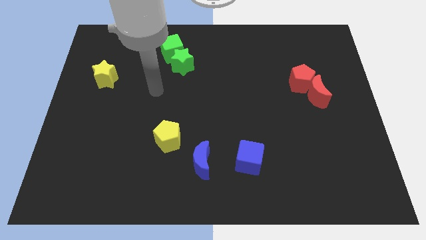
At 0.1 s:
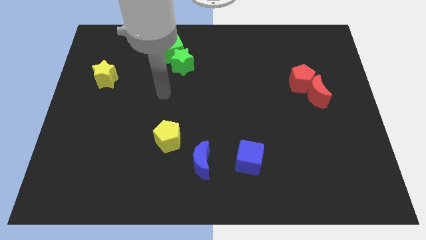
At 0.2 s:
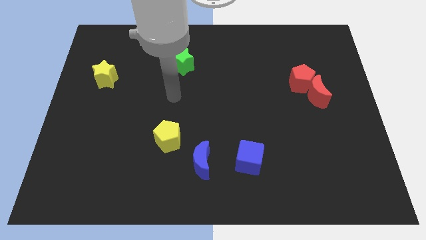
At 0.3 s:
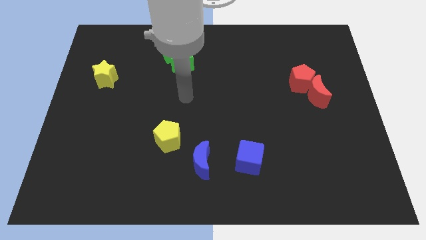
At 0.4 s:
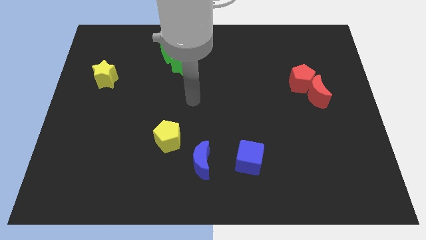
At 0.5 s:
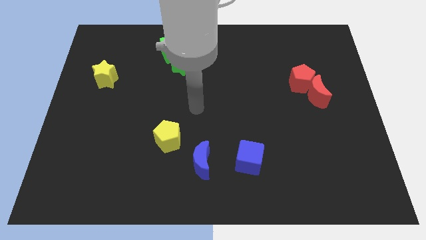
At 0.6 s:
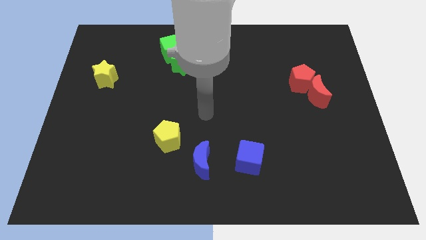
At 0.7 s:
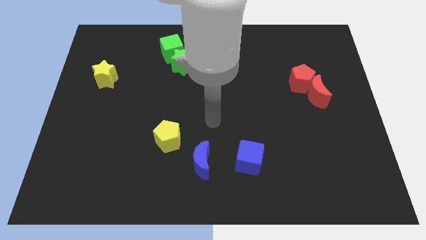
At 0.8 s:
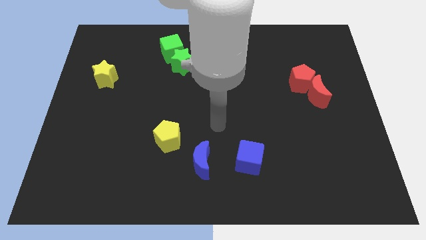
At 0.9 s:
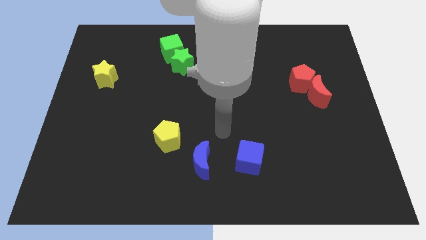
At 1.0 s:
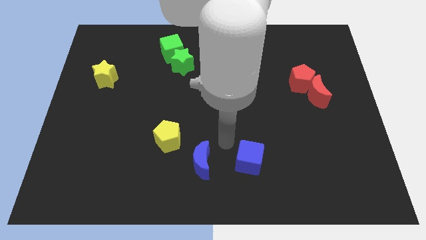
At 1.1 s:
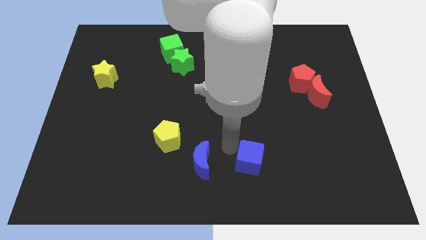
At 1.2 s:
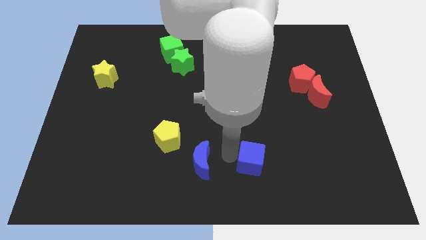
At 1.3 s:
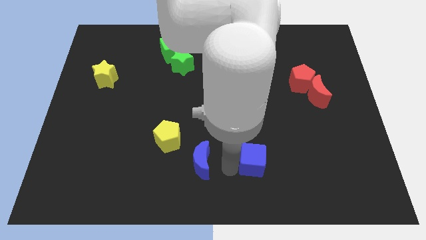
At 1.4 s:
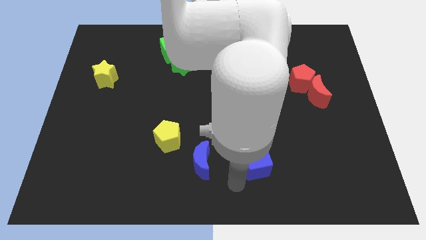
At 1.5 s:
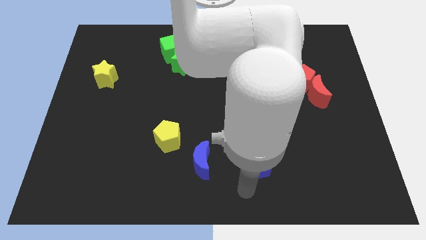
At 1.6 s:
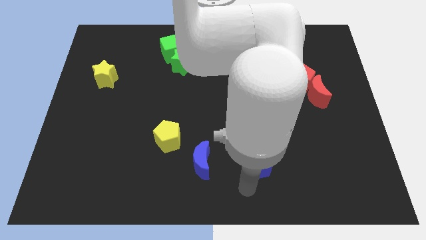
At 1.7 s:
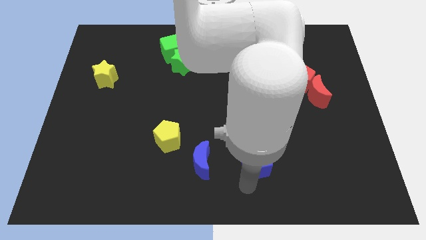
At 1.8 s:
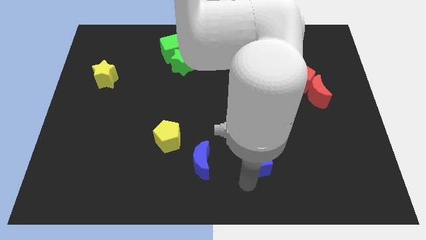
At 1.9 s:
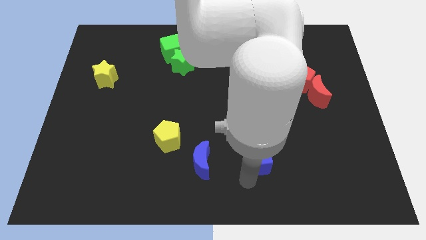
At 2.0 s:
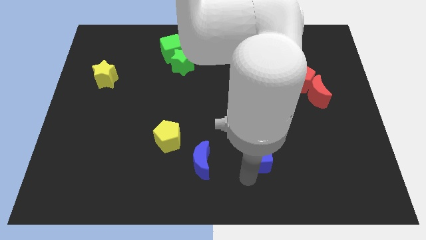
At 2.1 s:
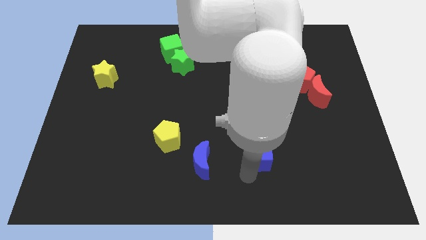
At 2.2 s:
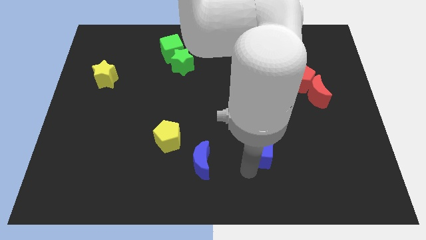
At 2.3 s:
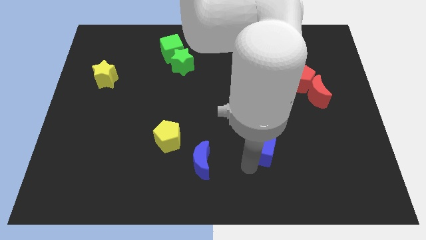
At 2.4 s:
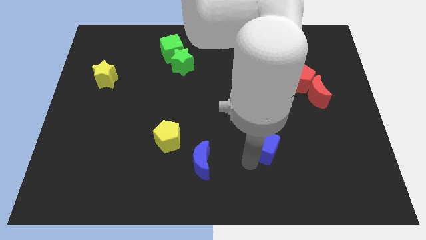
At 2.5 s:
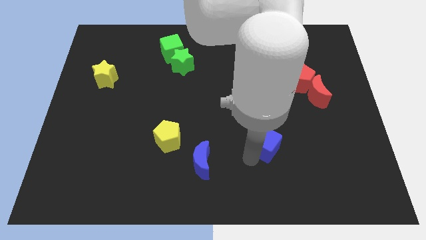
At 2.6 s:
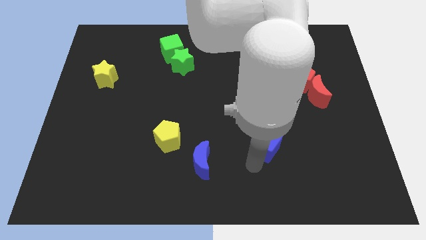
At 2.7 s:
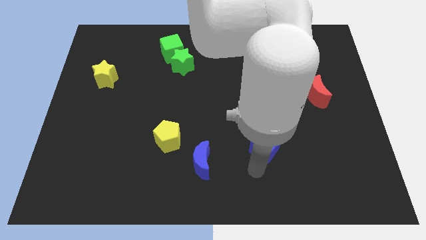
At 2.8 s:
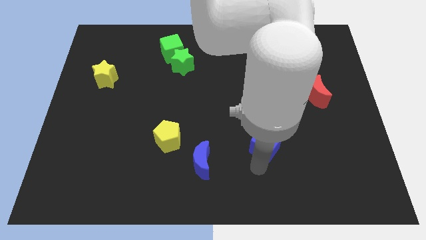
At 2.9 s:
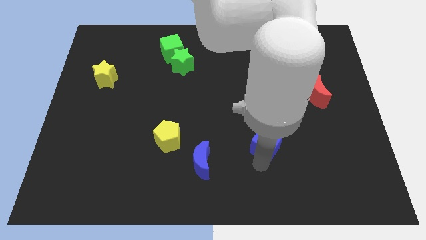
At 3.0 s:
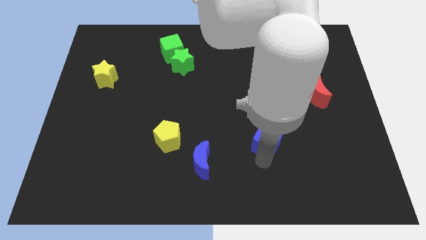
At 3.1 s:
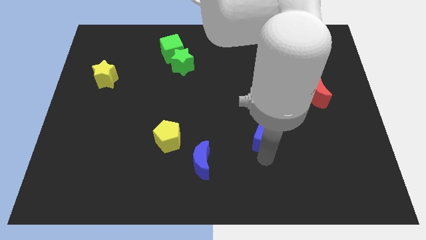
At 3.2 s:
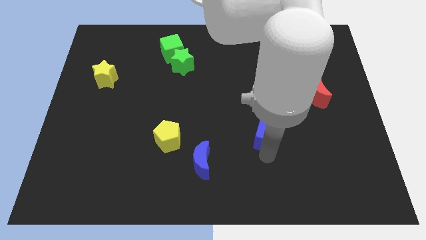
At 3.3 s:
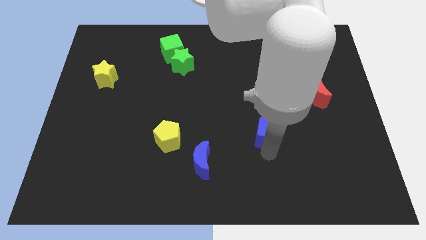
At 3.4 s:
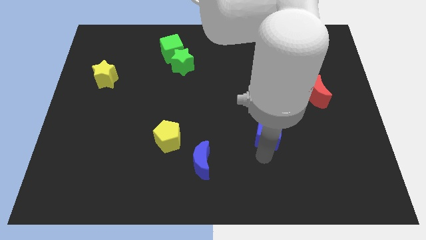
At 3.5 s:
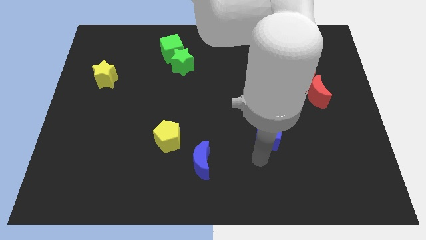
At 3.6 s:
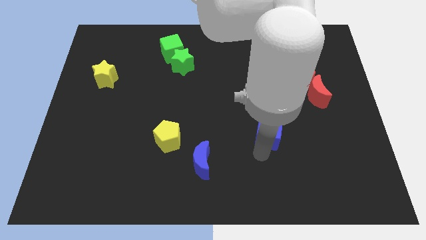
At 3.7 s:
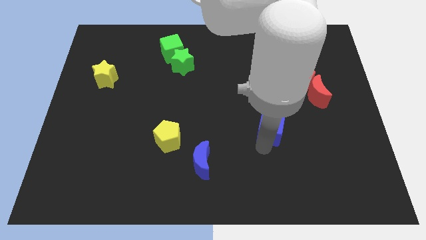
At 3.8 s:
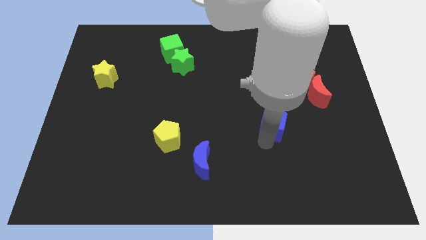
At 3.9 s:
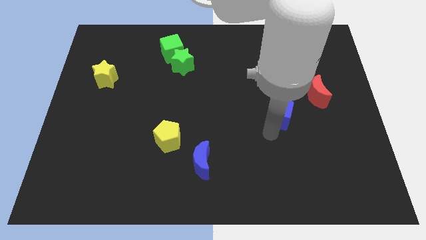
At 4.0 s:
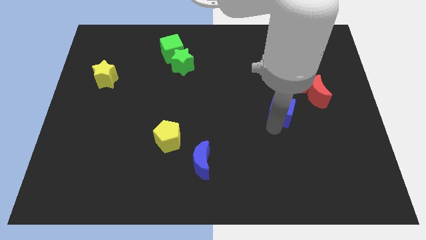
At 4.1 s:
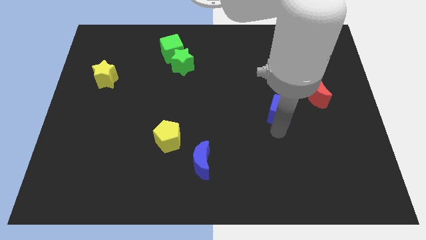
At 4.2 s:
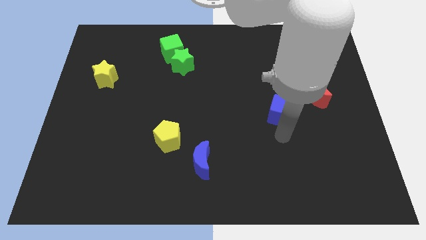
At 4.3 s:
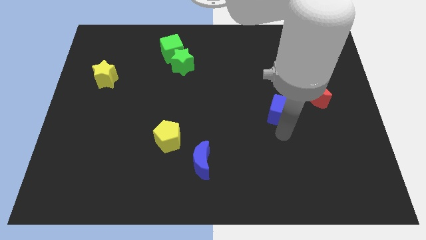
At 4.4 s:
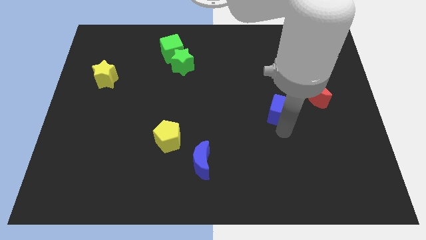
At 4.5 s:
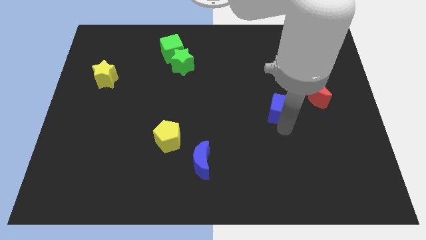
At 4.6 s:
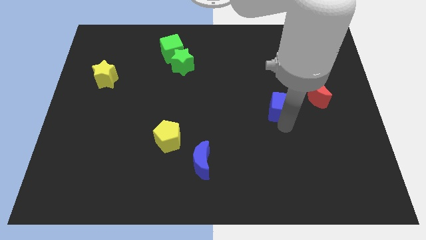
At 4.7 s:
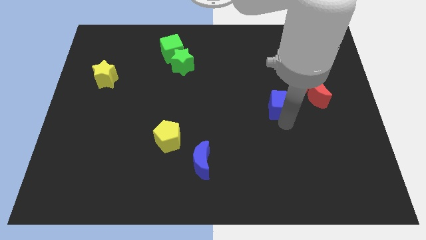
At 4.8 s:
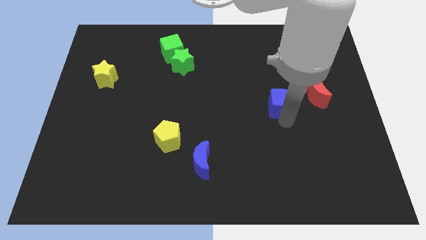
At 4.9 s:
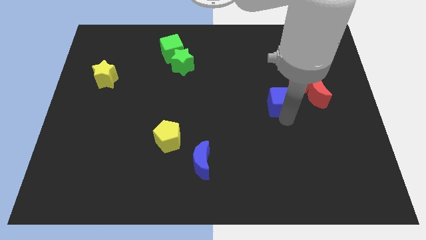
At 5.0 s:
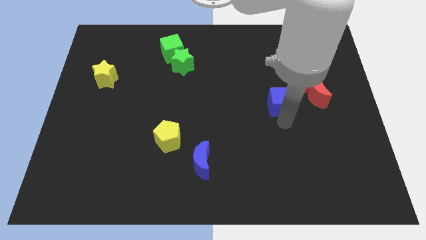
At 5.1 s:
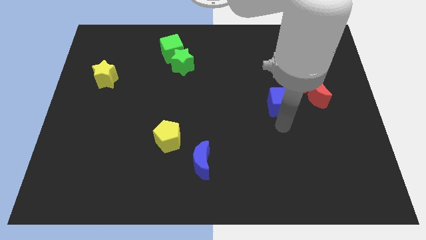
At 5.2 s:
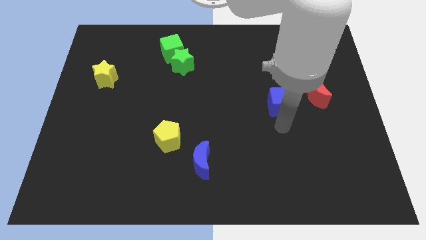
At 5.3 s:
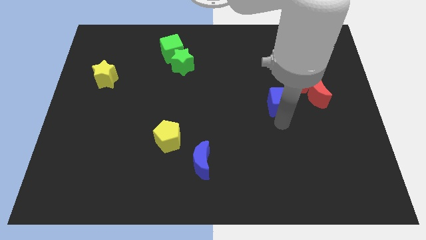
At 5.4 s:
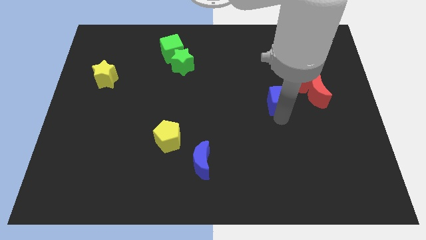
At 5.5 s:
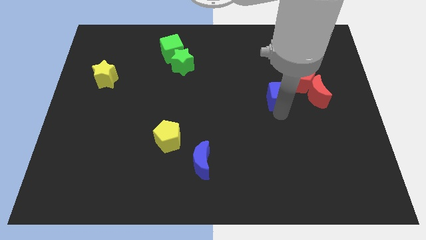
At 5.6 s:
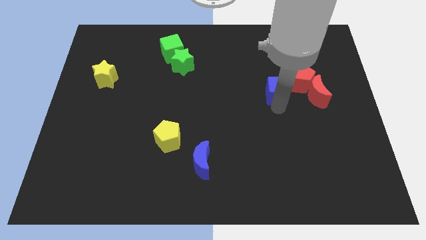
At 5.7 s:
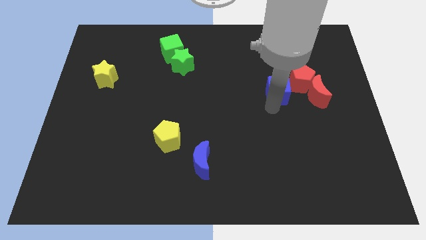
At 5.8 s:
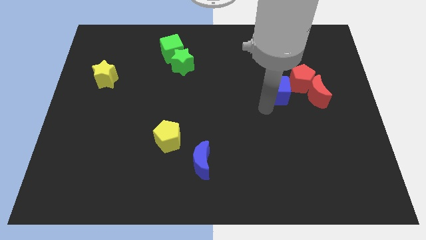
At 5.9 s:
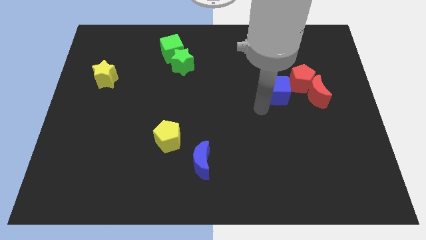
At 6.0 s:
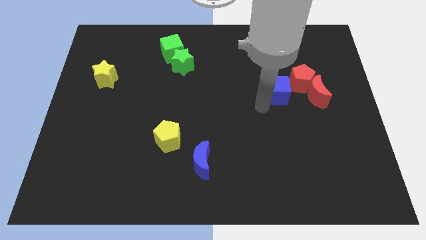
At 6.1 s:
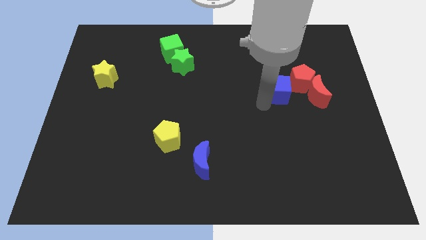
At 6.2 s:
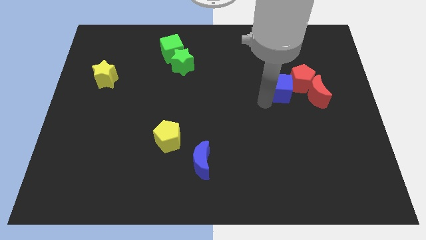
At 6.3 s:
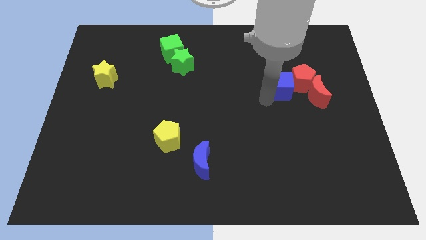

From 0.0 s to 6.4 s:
move the blue cube diagonally up and to the left of the red moon

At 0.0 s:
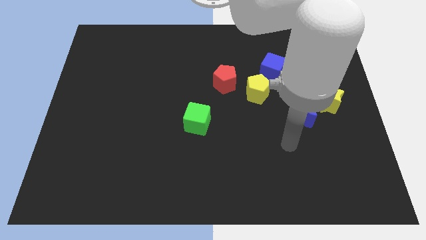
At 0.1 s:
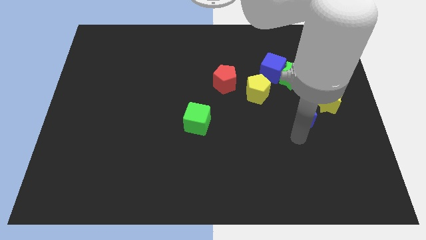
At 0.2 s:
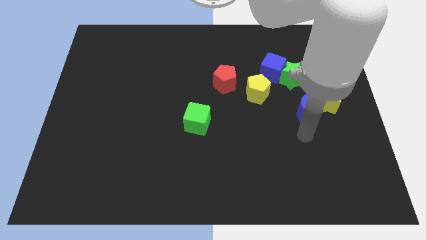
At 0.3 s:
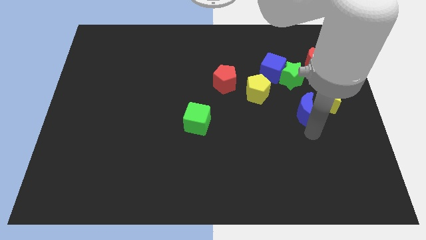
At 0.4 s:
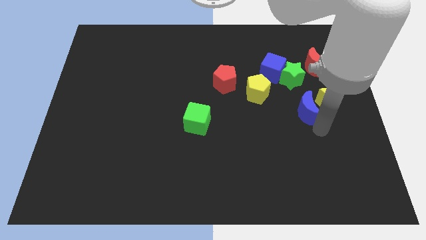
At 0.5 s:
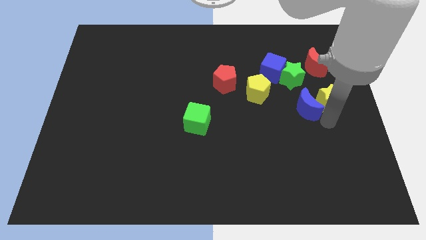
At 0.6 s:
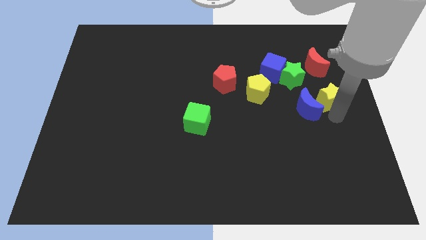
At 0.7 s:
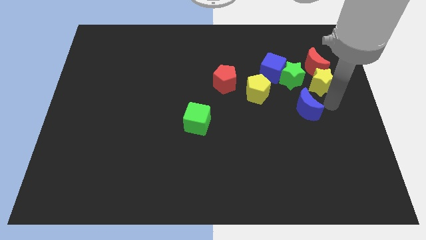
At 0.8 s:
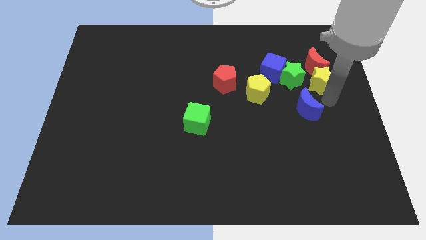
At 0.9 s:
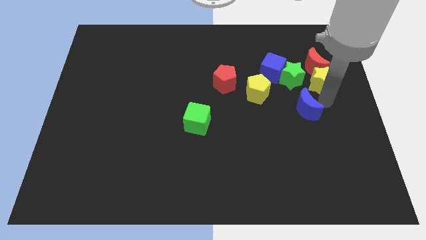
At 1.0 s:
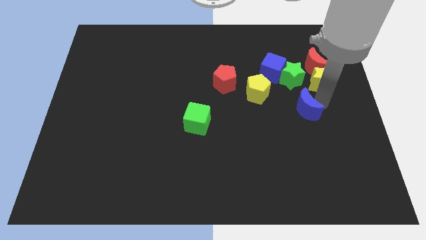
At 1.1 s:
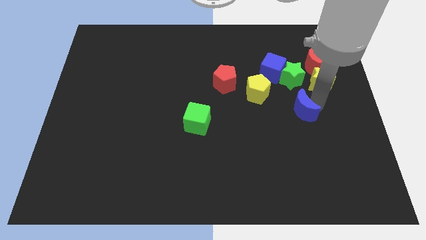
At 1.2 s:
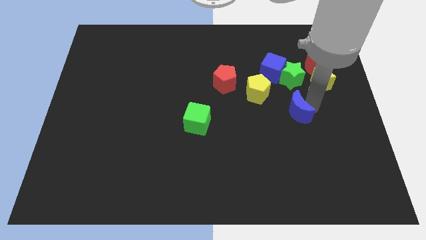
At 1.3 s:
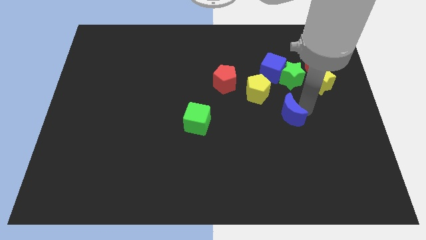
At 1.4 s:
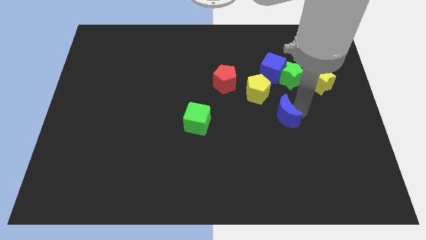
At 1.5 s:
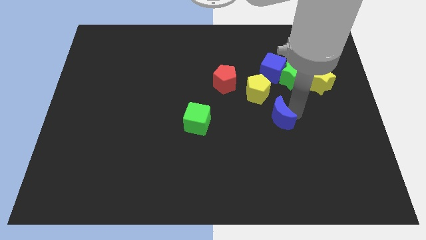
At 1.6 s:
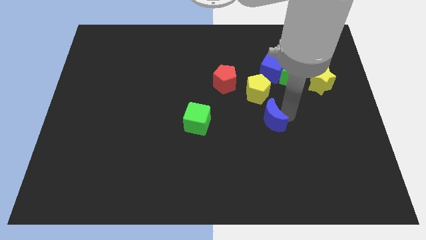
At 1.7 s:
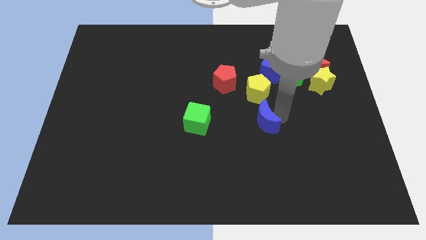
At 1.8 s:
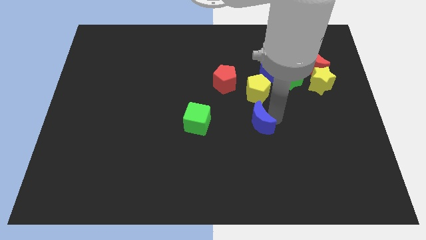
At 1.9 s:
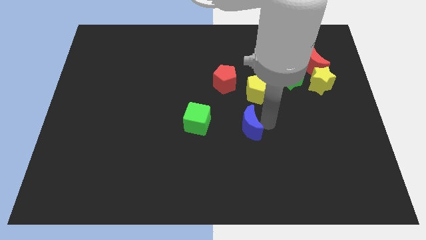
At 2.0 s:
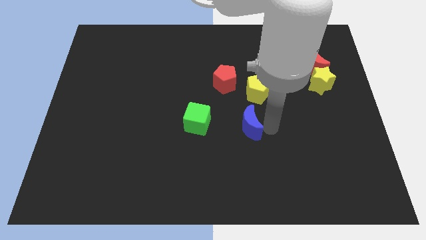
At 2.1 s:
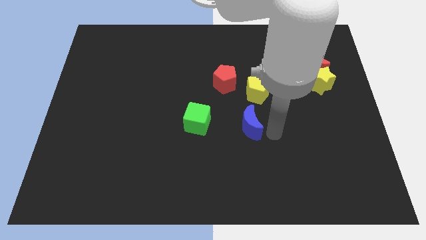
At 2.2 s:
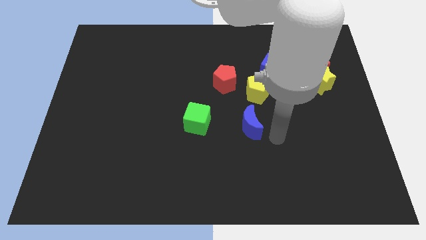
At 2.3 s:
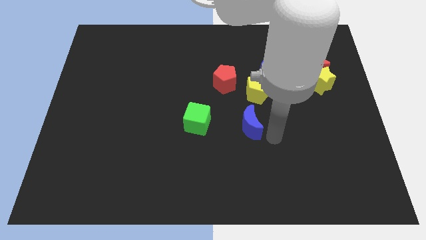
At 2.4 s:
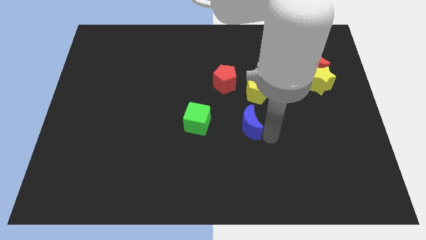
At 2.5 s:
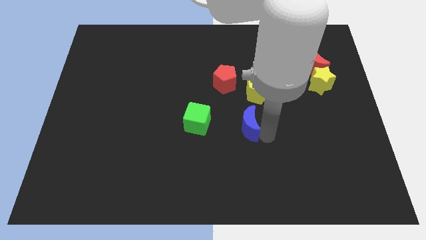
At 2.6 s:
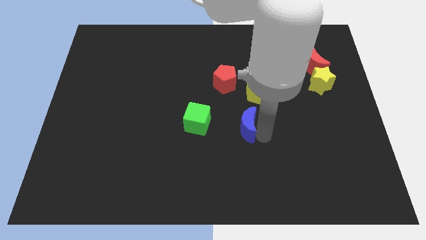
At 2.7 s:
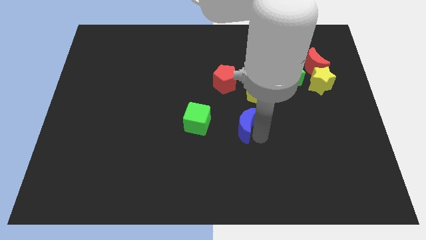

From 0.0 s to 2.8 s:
move the blue moon to the bottom side of the red pentagon
